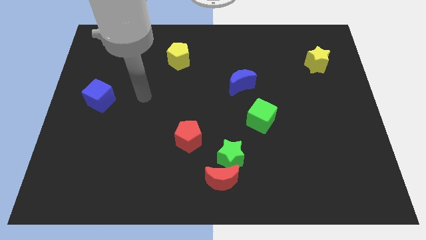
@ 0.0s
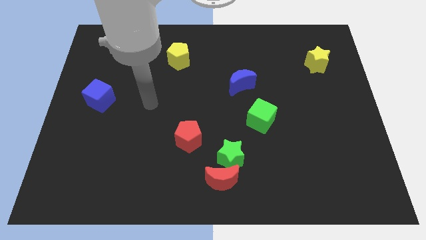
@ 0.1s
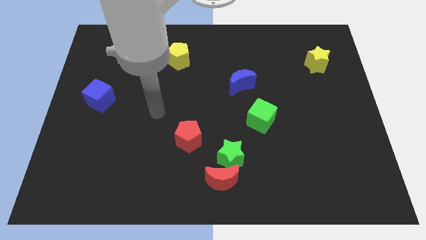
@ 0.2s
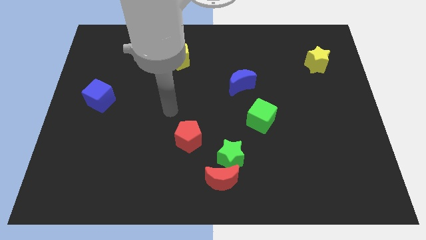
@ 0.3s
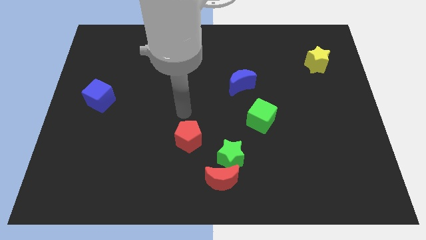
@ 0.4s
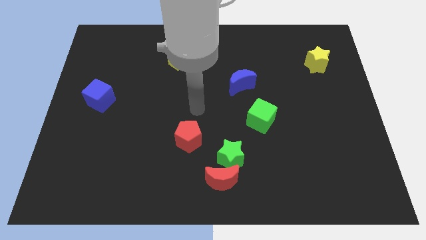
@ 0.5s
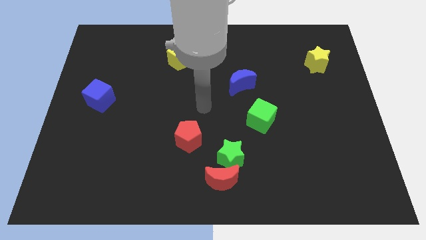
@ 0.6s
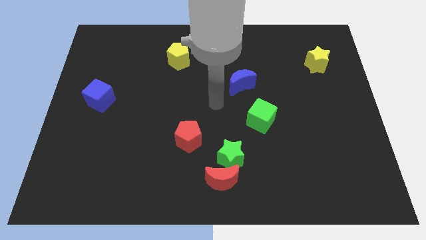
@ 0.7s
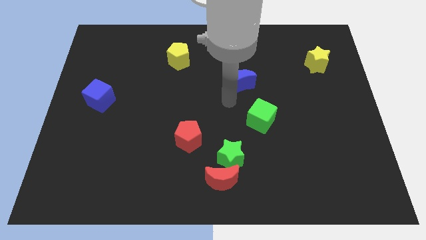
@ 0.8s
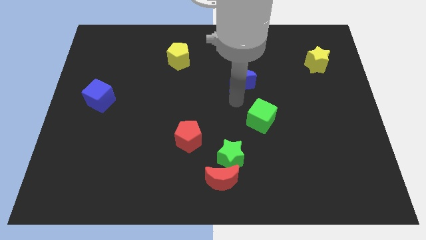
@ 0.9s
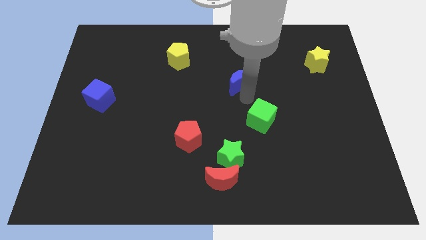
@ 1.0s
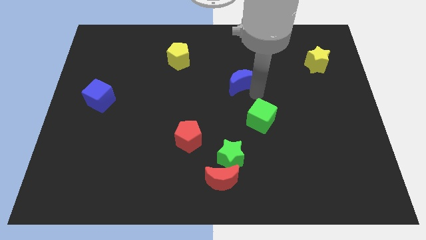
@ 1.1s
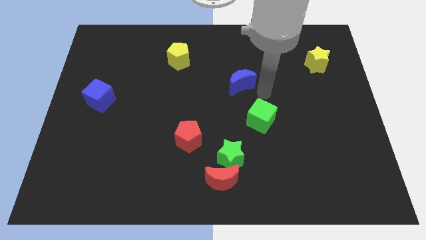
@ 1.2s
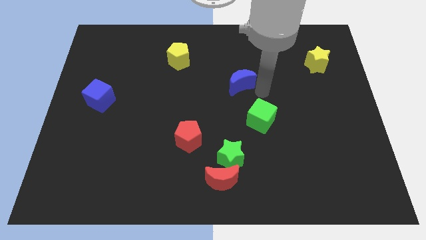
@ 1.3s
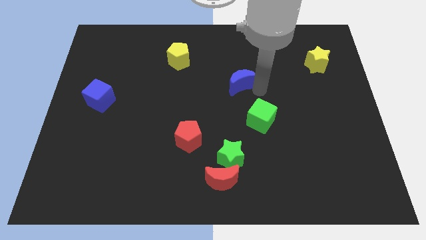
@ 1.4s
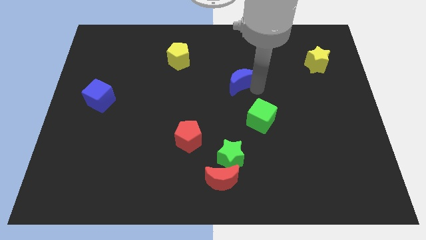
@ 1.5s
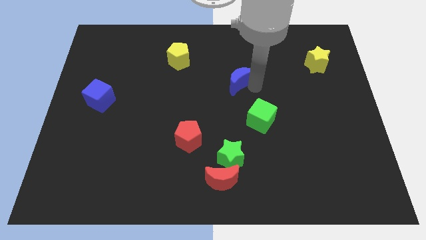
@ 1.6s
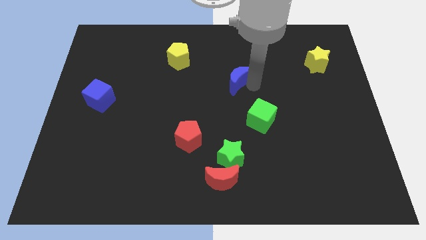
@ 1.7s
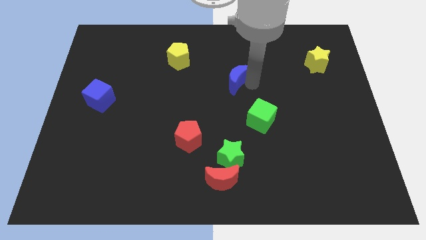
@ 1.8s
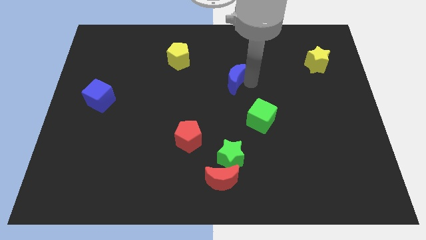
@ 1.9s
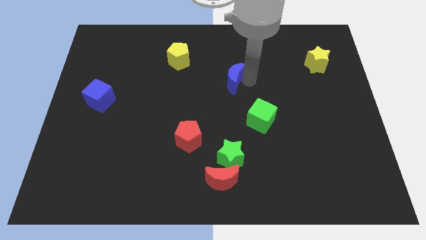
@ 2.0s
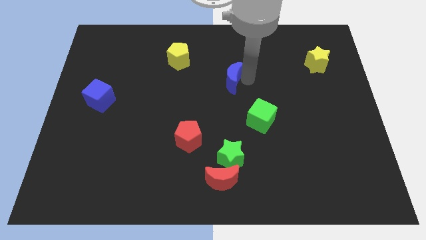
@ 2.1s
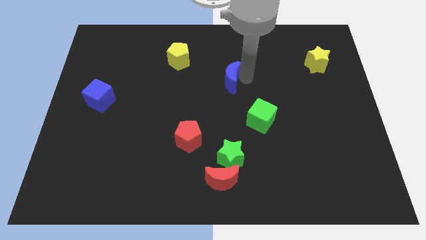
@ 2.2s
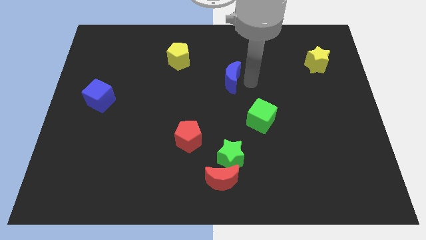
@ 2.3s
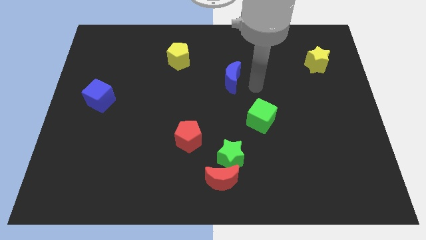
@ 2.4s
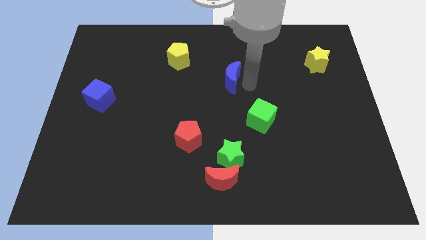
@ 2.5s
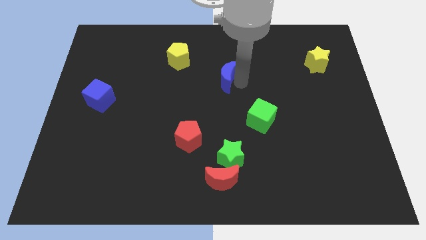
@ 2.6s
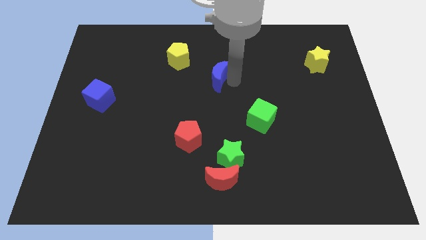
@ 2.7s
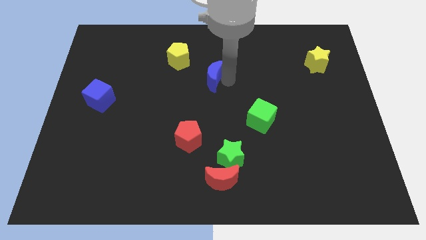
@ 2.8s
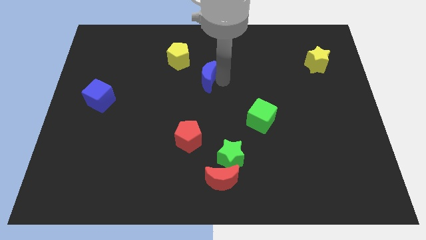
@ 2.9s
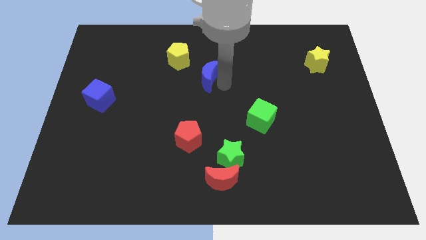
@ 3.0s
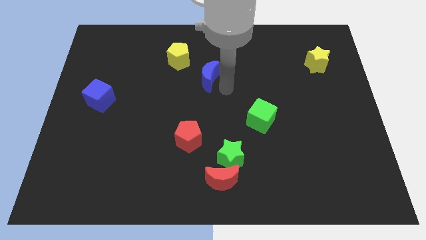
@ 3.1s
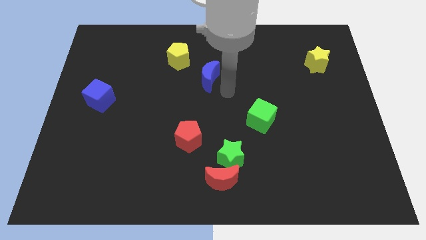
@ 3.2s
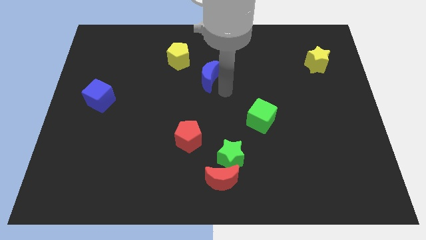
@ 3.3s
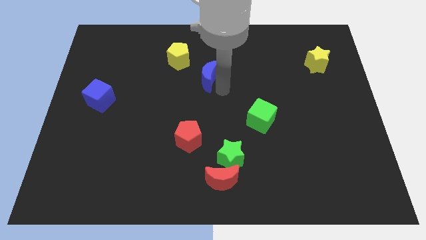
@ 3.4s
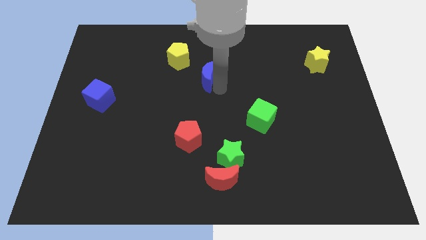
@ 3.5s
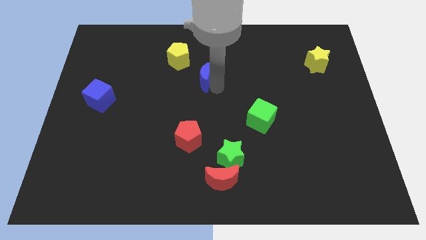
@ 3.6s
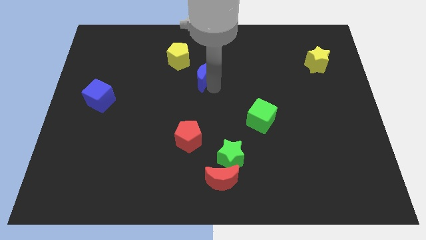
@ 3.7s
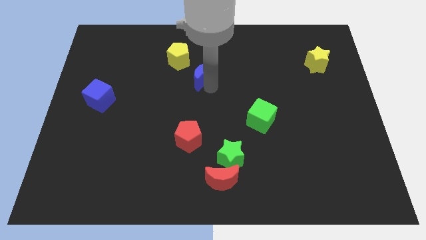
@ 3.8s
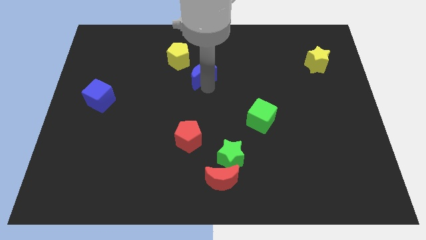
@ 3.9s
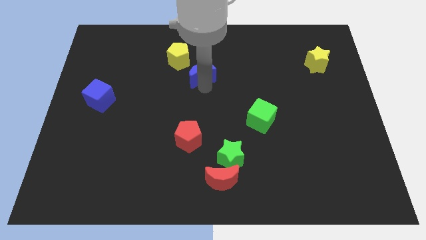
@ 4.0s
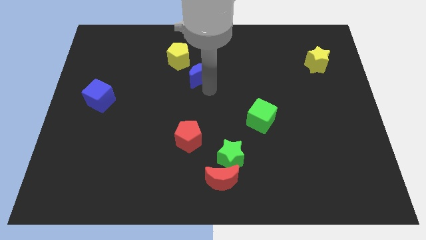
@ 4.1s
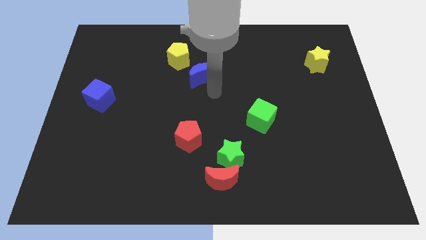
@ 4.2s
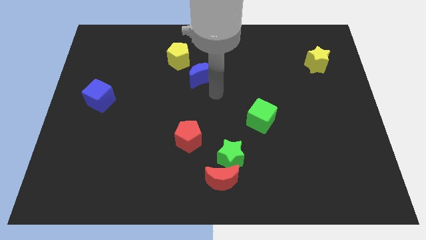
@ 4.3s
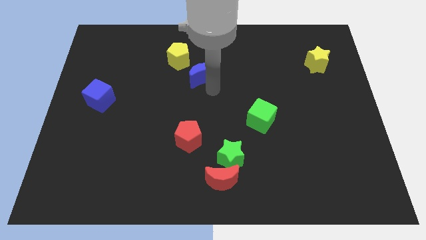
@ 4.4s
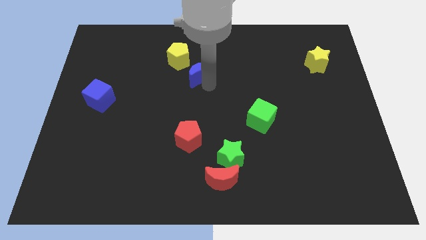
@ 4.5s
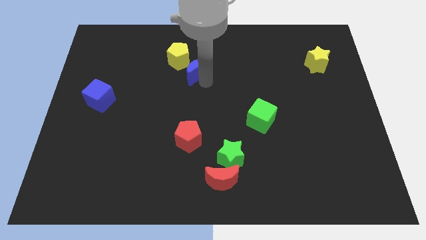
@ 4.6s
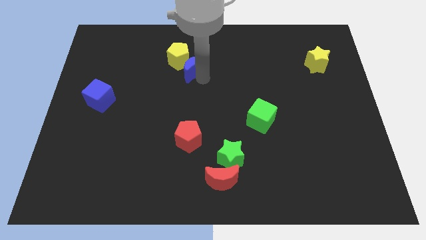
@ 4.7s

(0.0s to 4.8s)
slide the blue moon next to the yellow pentagon

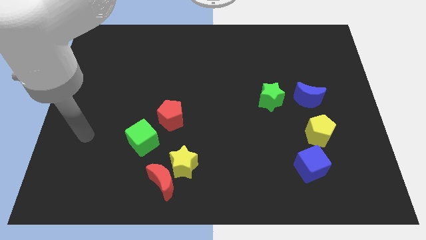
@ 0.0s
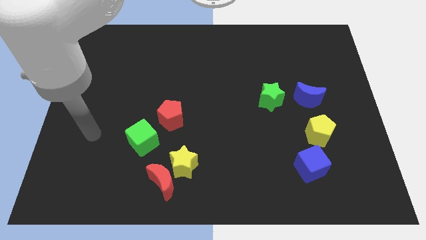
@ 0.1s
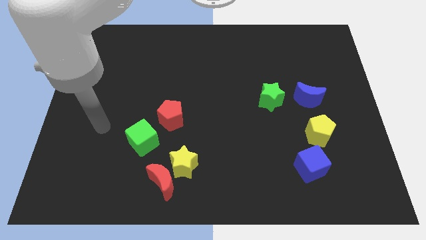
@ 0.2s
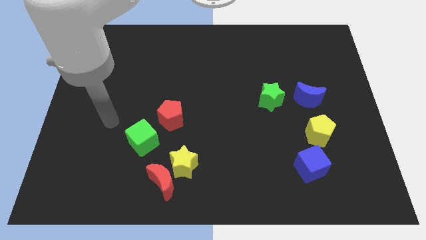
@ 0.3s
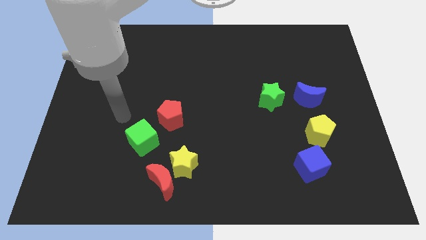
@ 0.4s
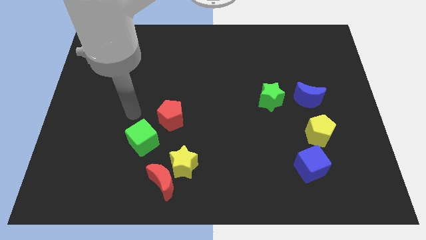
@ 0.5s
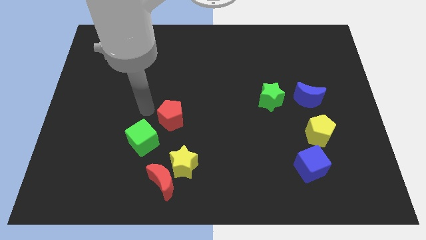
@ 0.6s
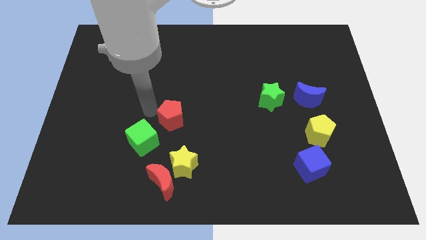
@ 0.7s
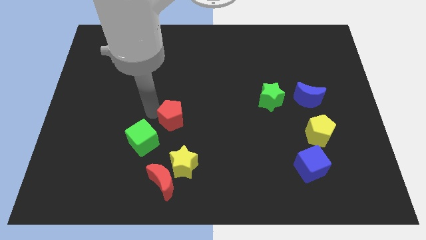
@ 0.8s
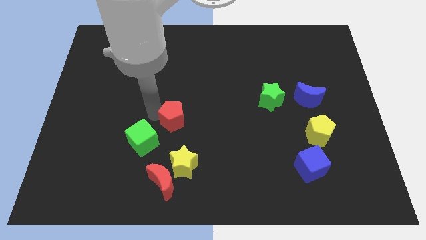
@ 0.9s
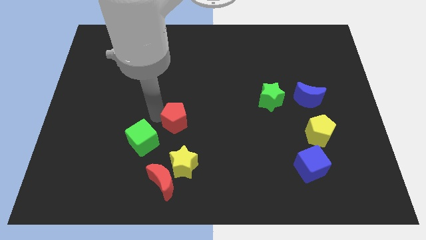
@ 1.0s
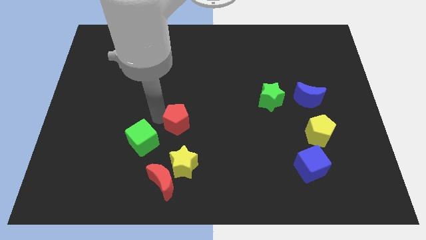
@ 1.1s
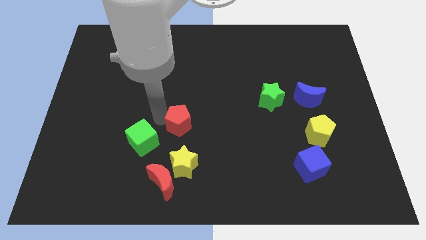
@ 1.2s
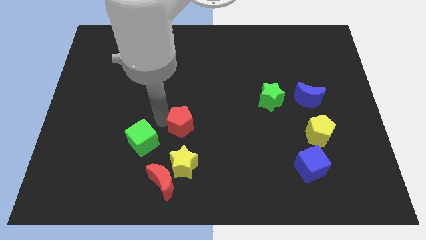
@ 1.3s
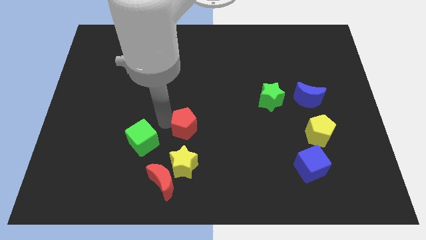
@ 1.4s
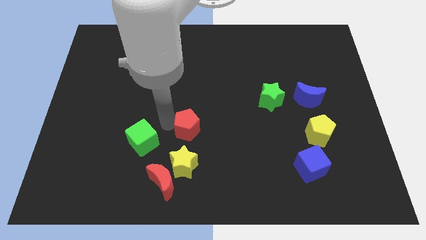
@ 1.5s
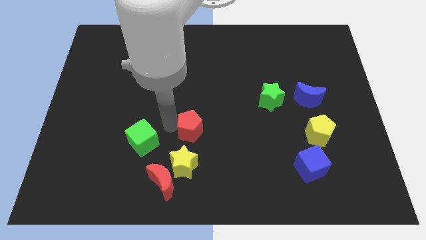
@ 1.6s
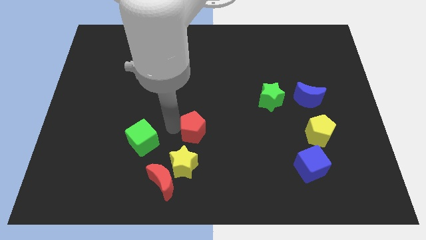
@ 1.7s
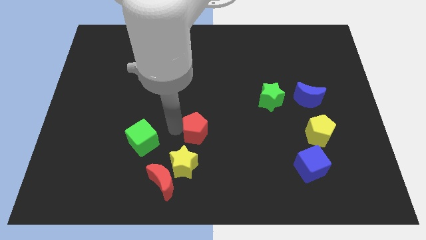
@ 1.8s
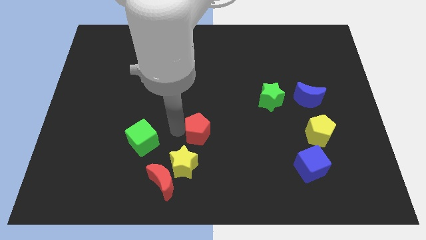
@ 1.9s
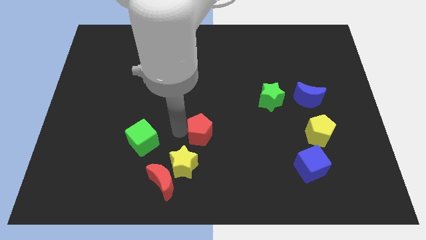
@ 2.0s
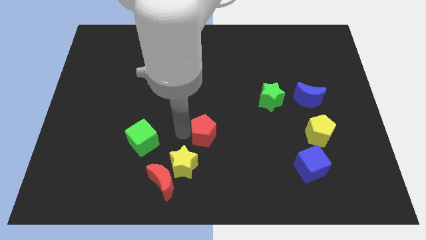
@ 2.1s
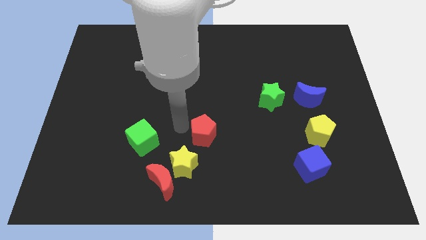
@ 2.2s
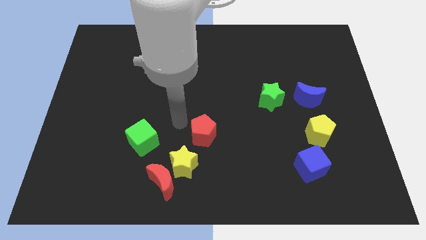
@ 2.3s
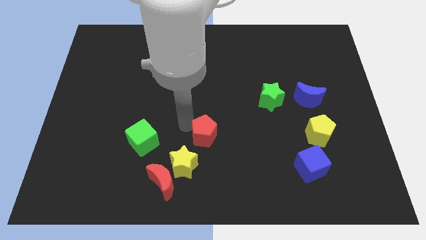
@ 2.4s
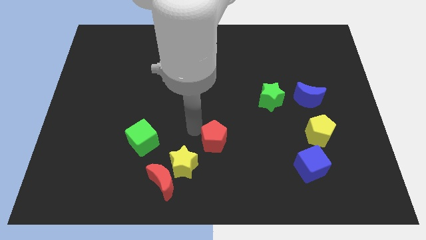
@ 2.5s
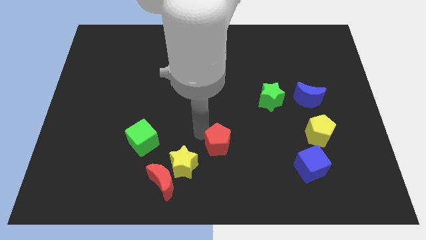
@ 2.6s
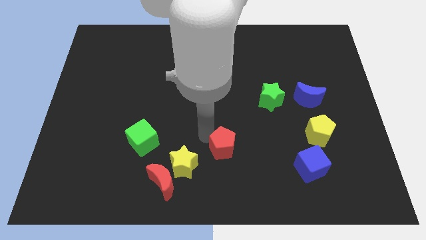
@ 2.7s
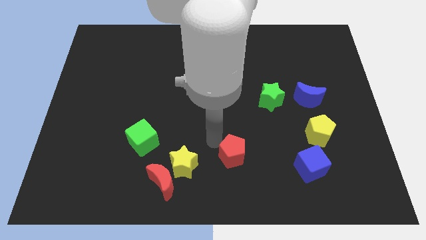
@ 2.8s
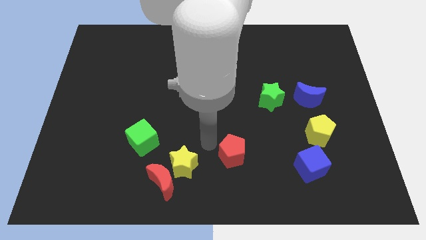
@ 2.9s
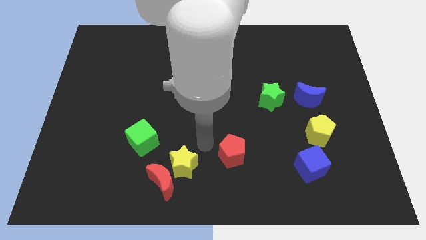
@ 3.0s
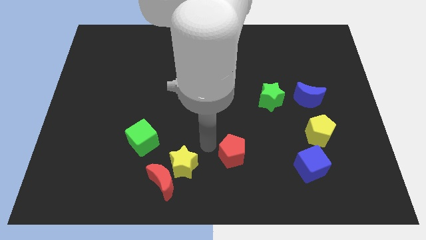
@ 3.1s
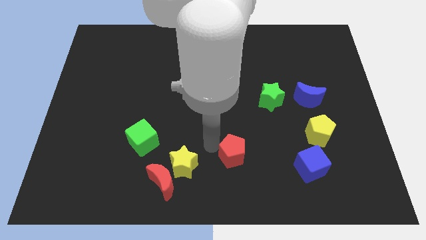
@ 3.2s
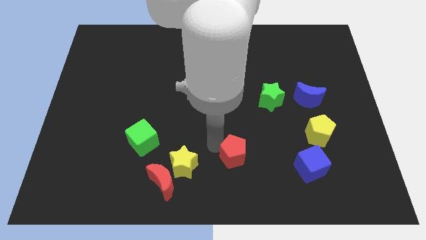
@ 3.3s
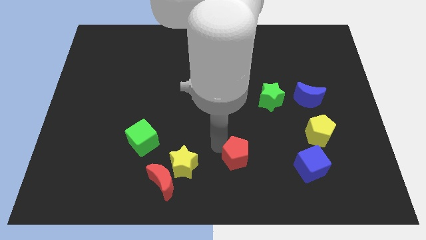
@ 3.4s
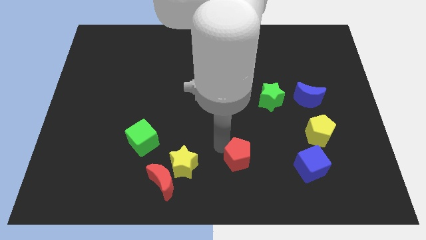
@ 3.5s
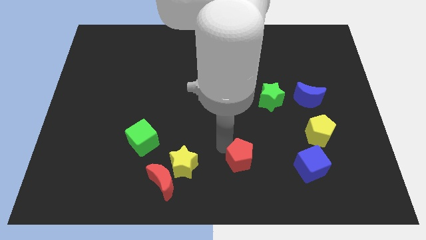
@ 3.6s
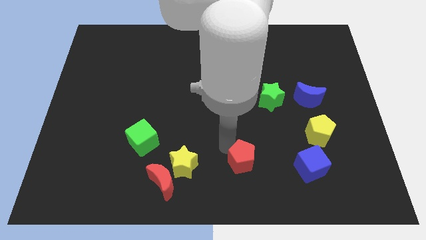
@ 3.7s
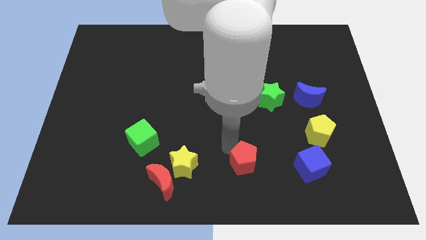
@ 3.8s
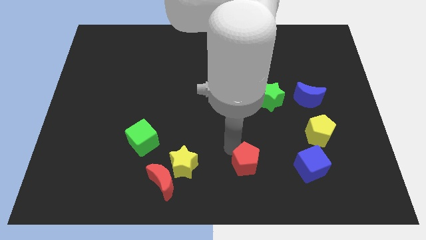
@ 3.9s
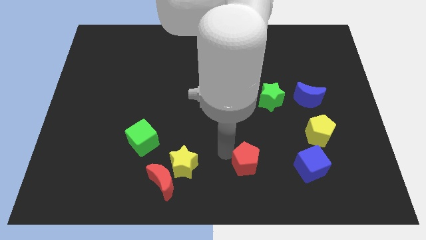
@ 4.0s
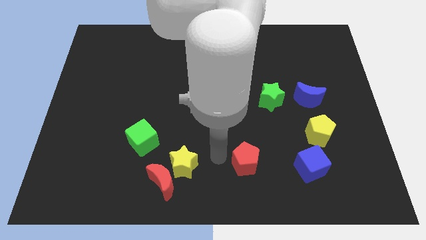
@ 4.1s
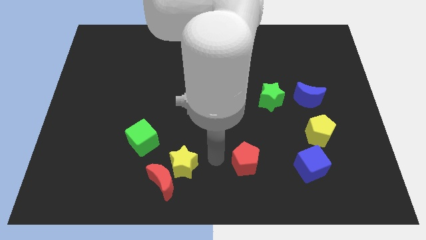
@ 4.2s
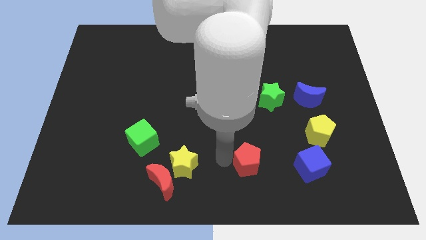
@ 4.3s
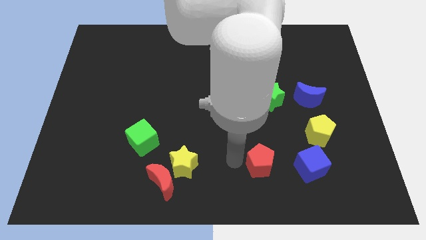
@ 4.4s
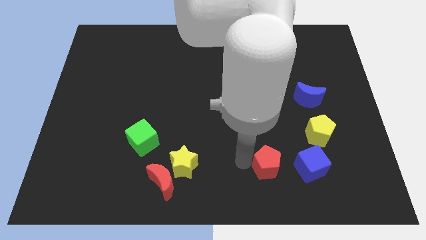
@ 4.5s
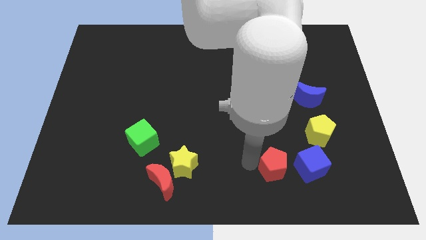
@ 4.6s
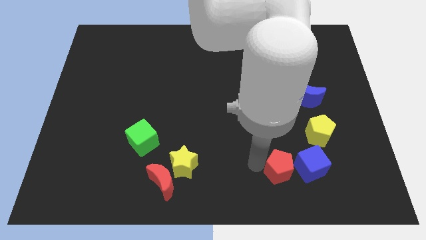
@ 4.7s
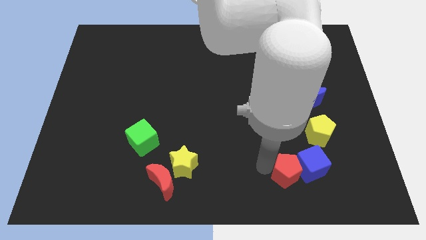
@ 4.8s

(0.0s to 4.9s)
push the red pentagon close to the blue cube
